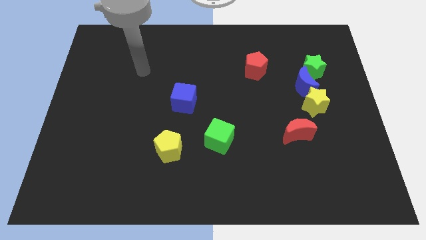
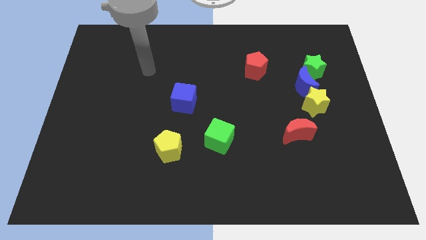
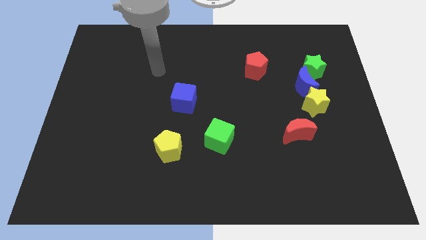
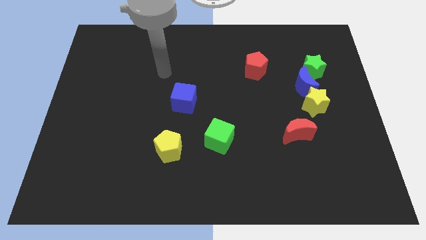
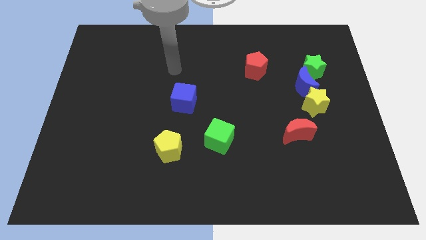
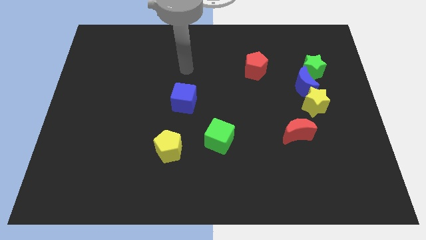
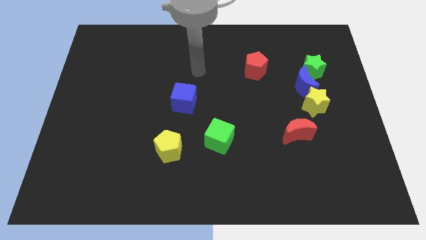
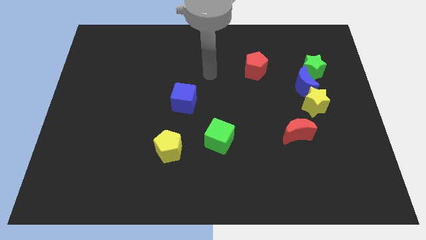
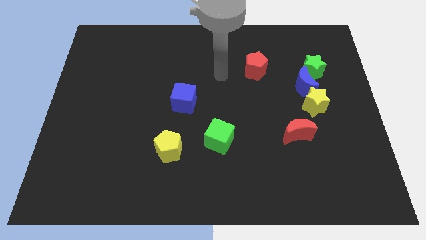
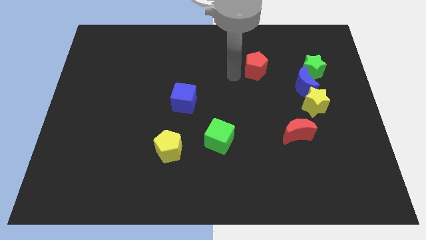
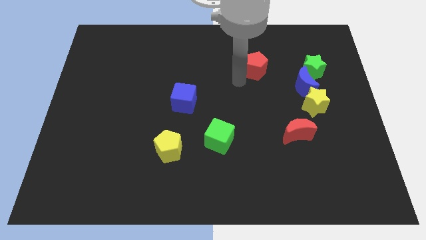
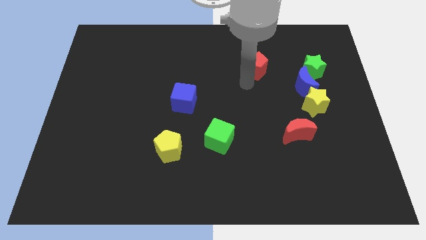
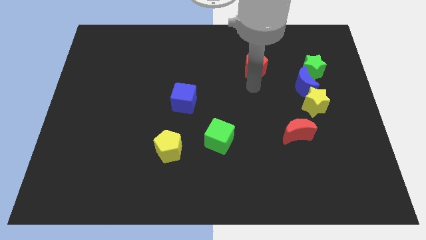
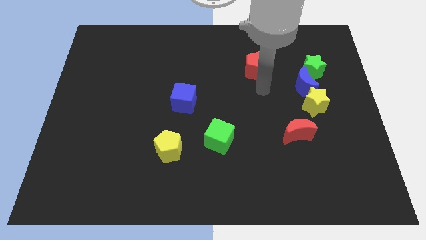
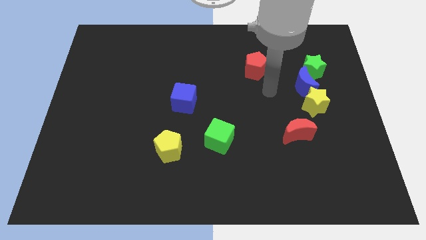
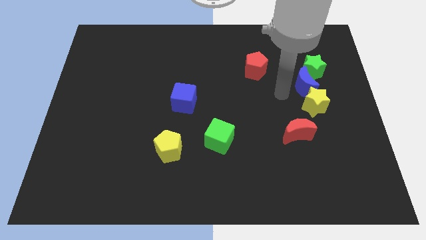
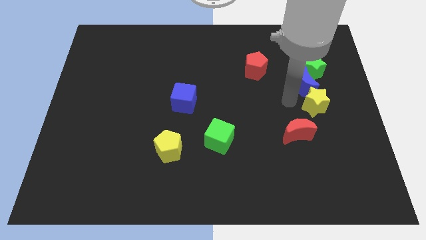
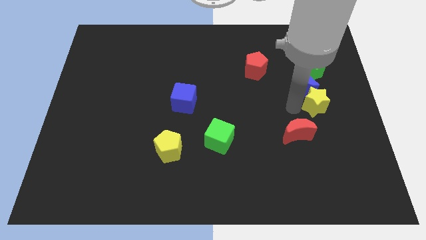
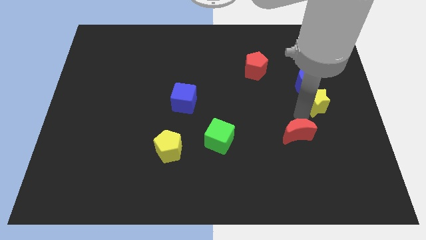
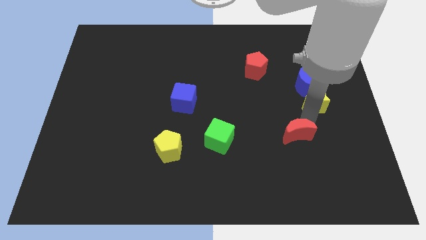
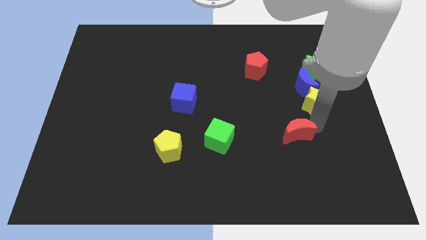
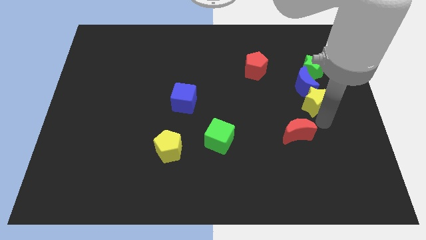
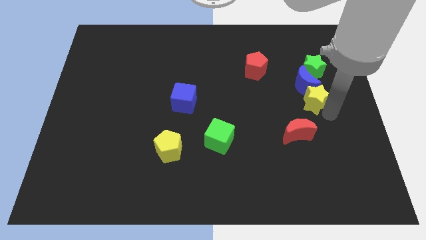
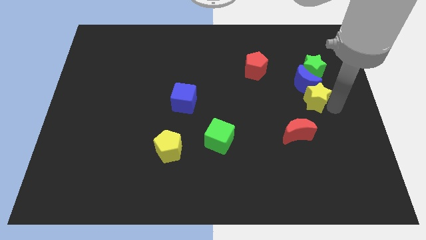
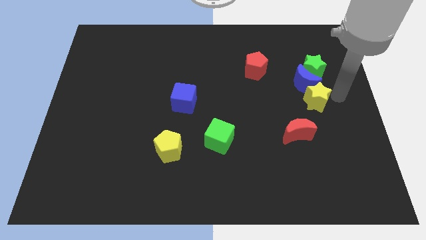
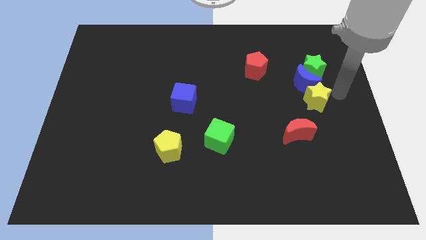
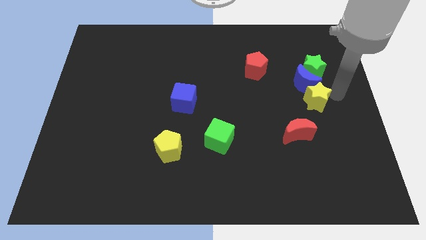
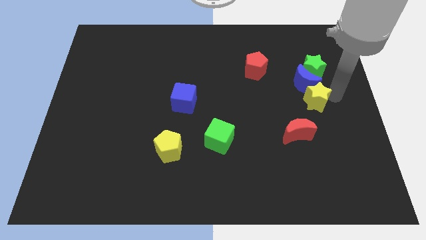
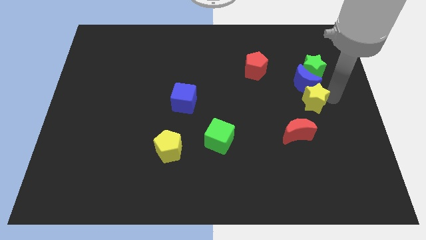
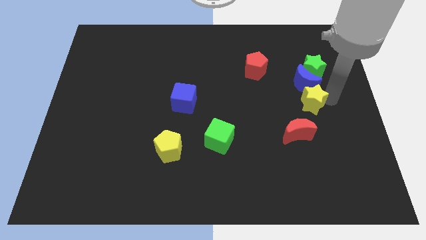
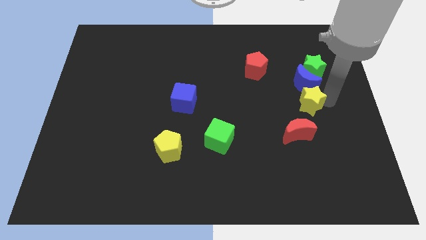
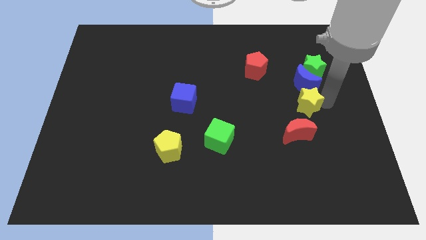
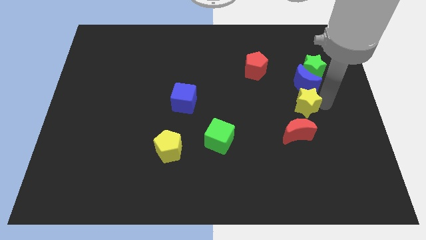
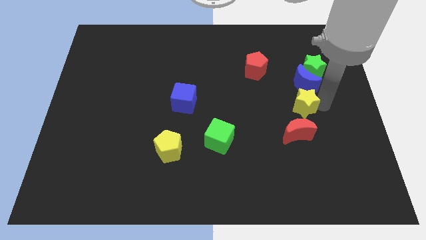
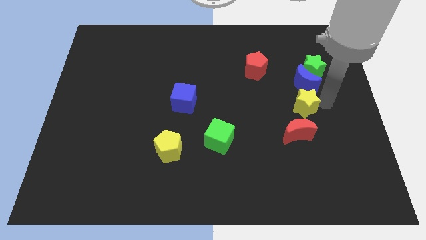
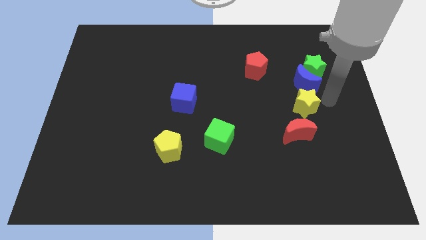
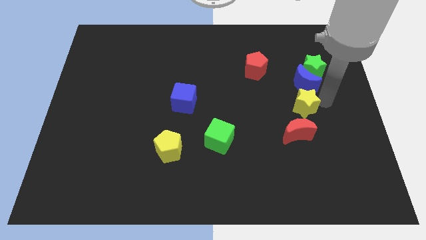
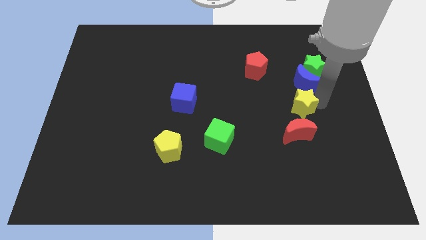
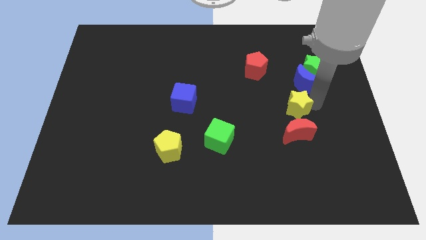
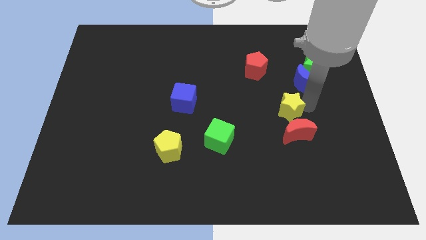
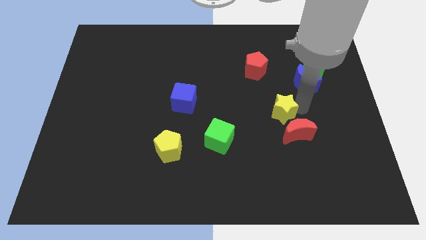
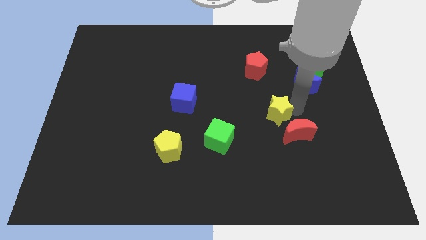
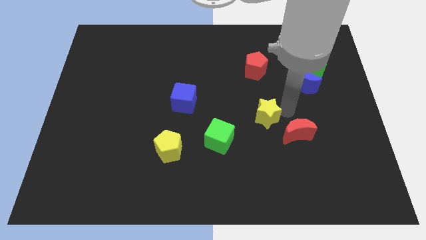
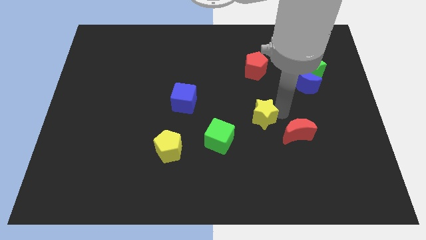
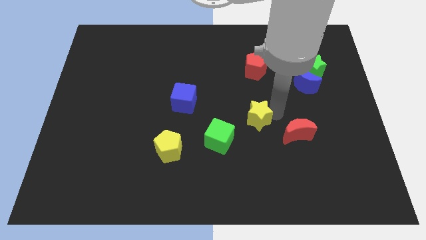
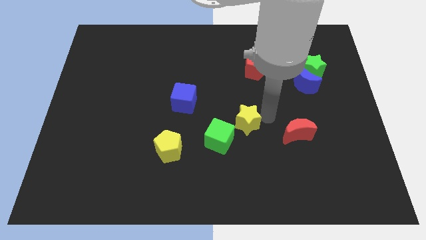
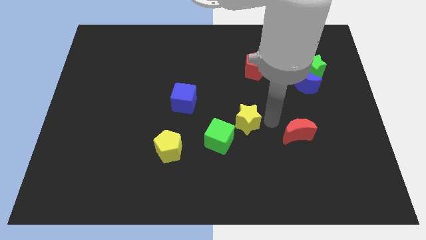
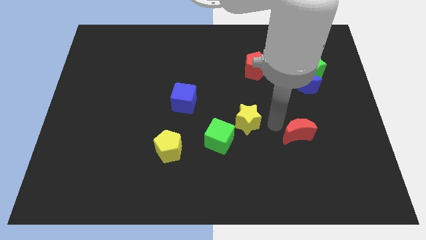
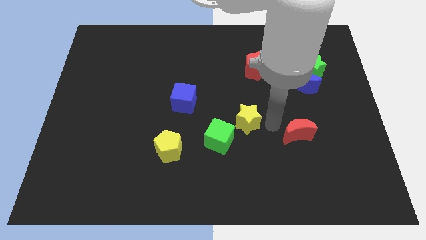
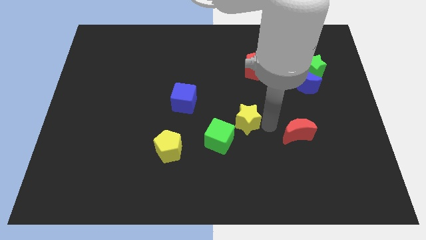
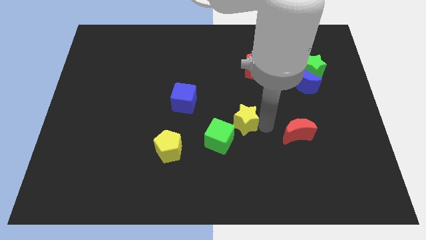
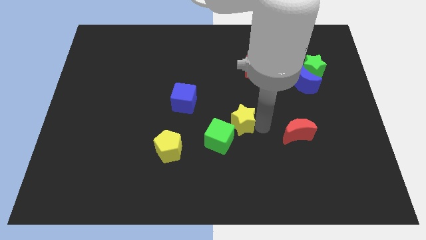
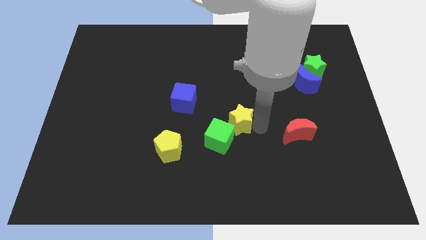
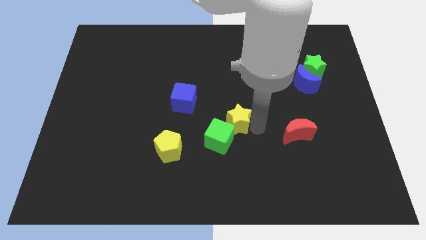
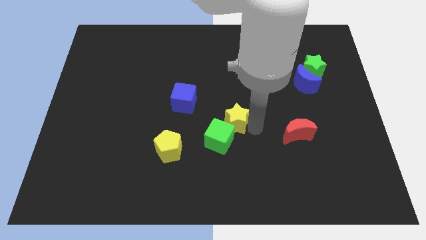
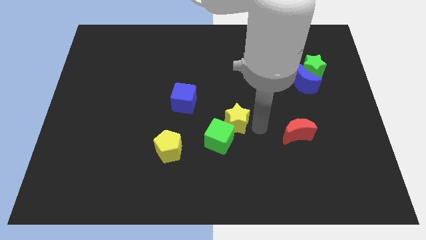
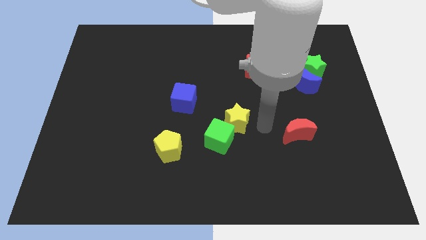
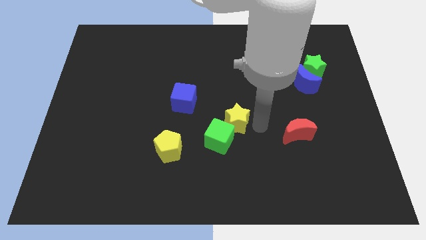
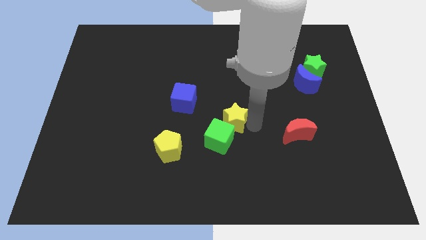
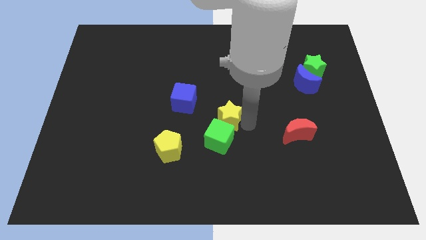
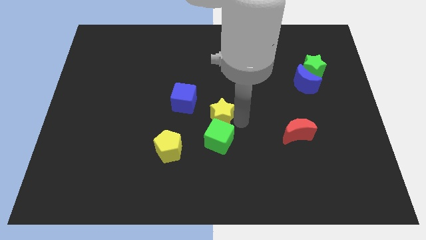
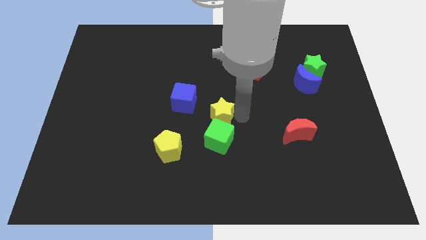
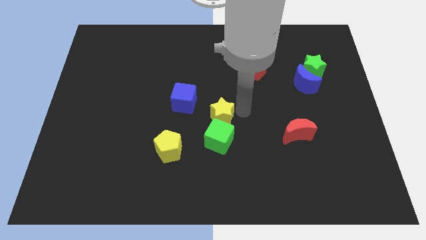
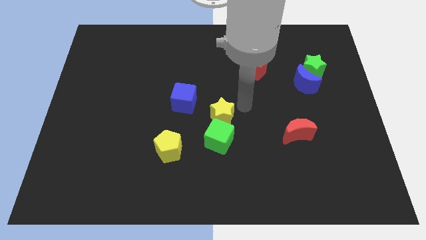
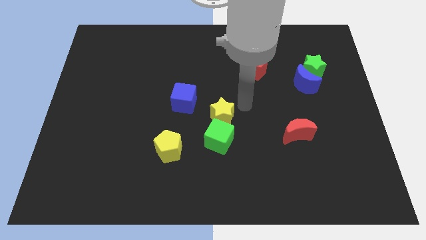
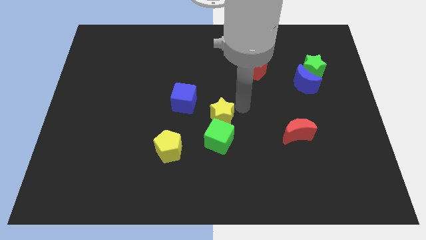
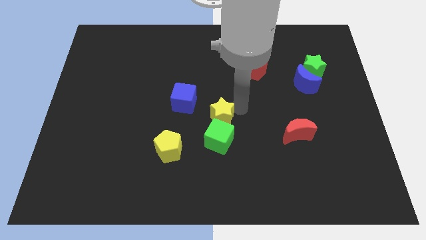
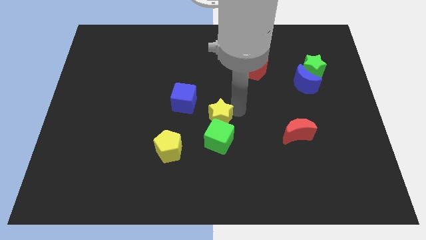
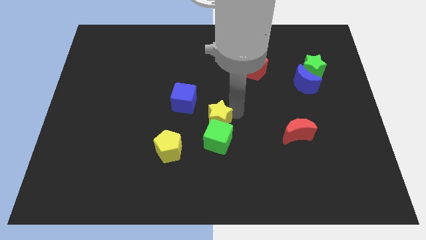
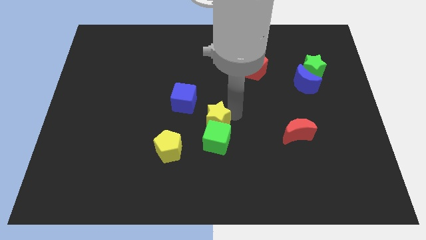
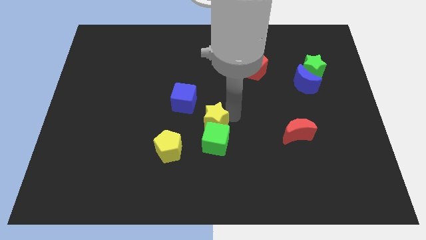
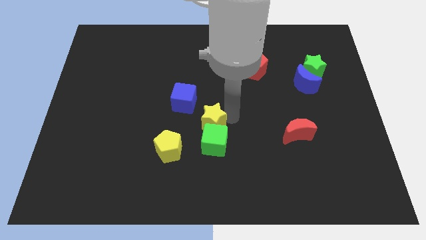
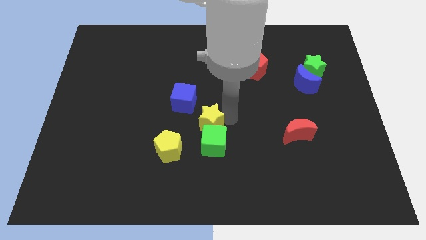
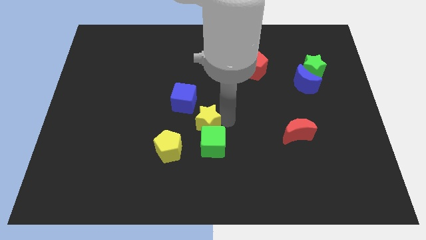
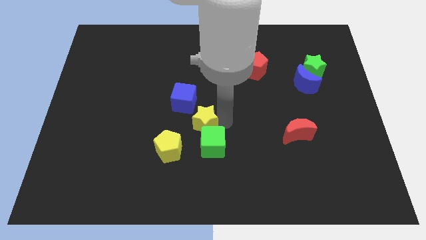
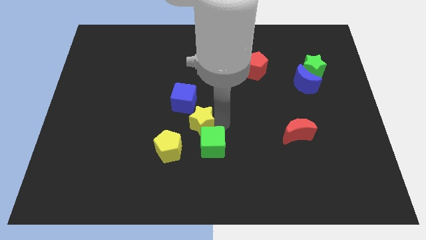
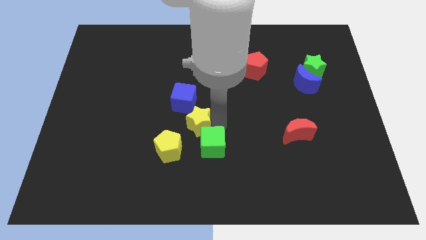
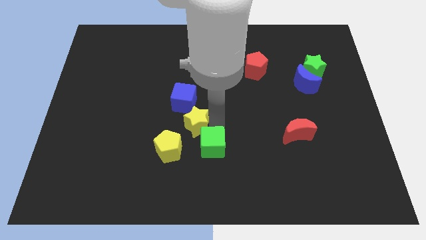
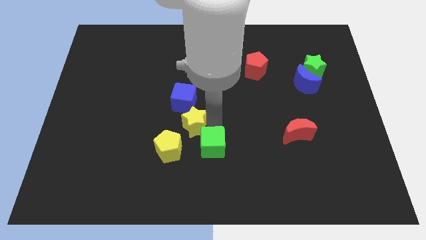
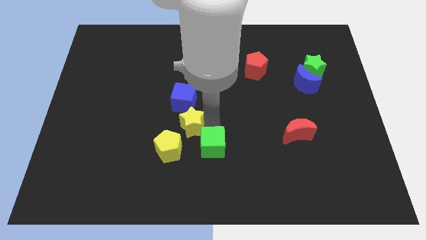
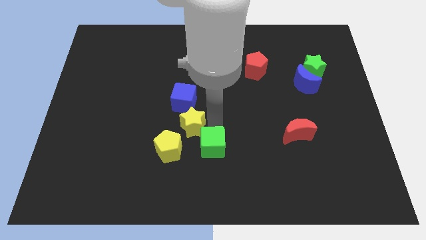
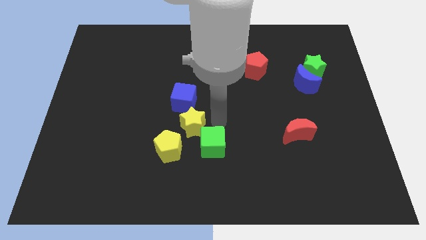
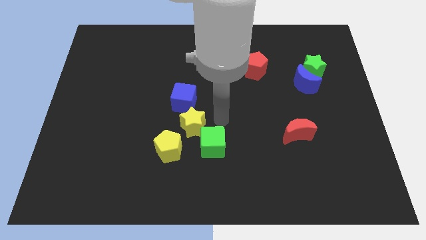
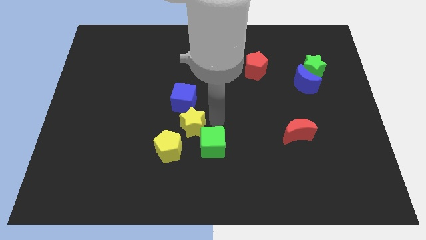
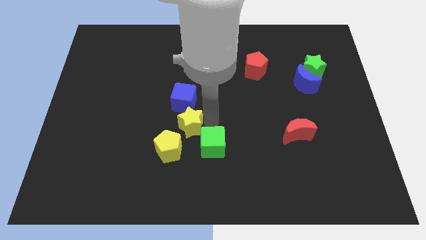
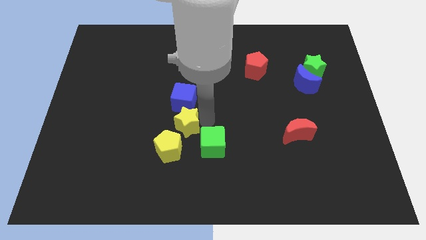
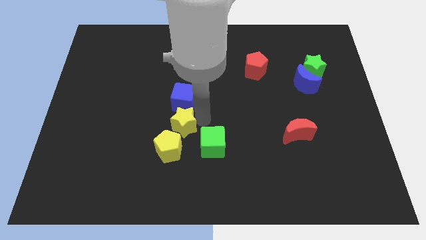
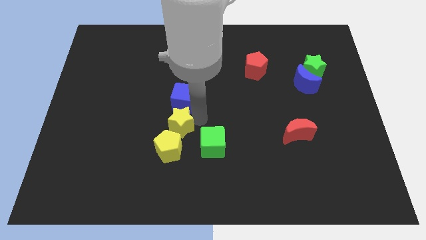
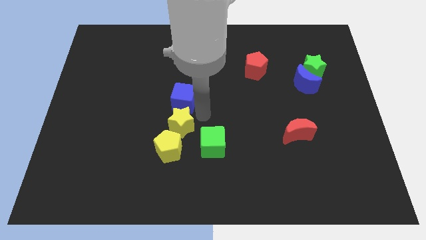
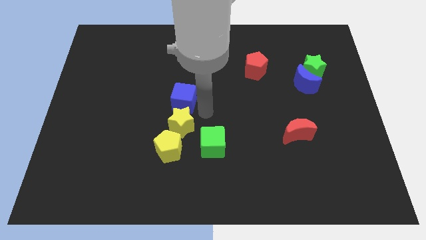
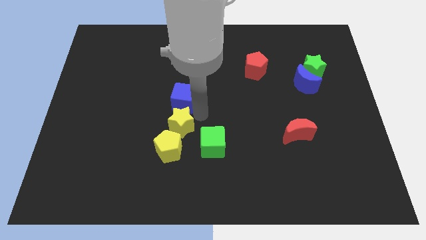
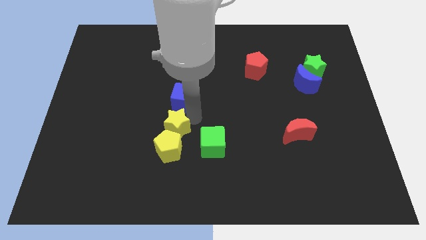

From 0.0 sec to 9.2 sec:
slide the yellow star left of the green cube
